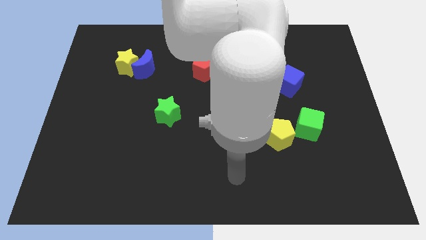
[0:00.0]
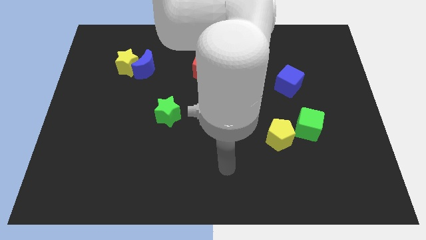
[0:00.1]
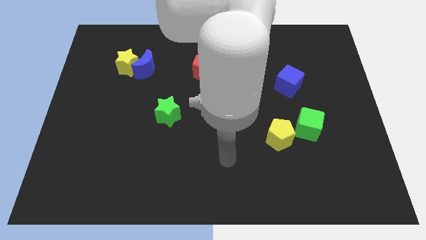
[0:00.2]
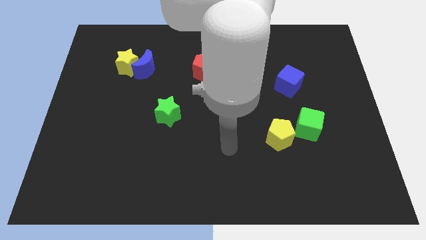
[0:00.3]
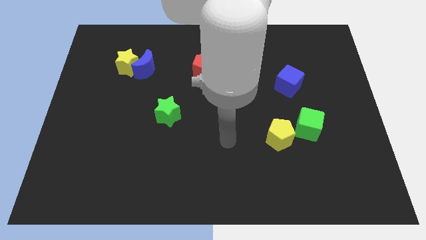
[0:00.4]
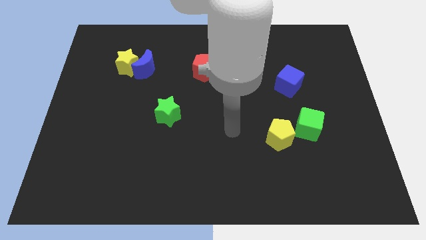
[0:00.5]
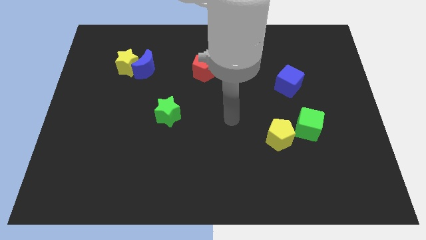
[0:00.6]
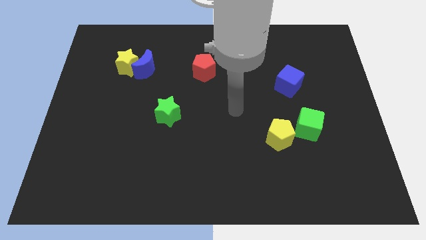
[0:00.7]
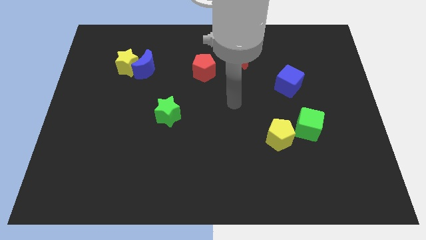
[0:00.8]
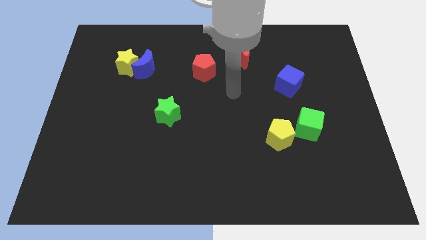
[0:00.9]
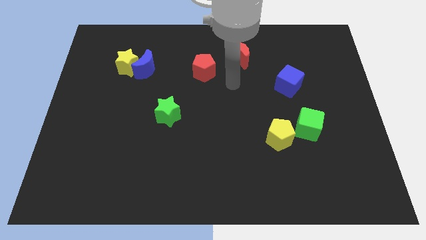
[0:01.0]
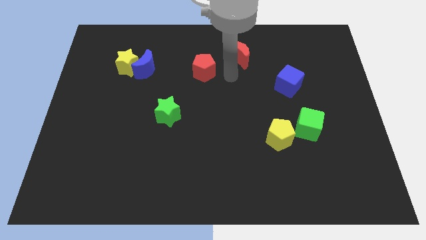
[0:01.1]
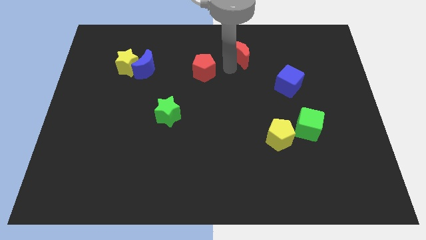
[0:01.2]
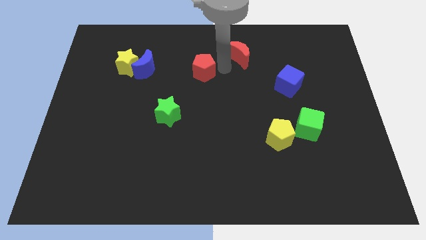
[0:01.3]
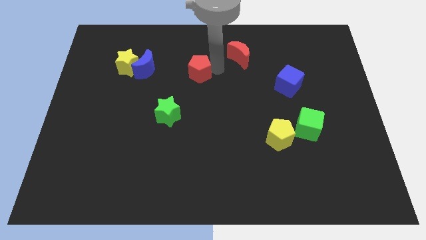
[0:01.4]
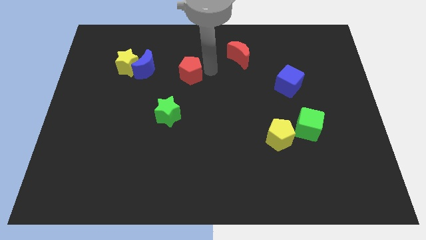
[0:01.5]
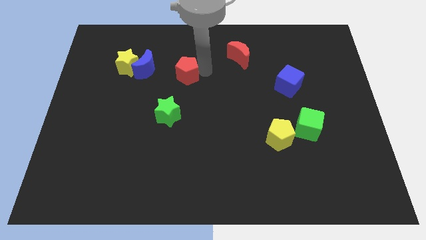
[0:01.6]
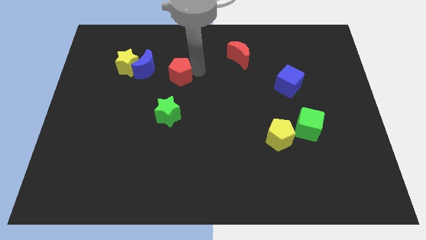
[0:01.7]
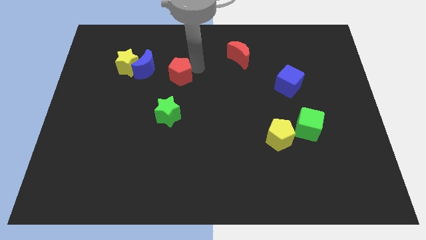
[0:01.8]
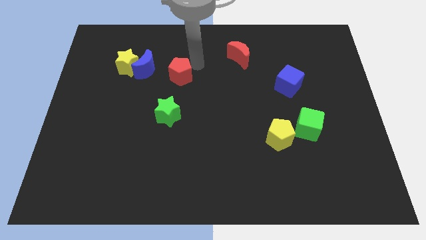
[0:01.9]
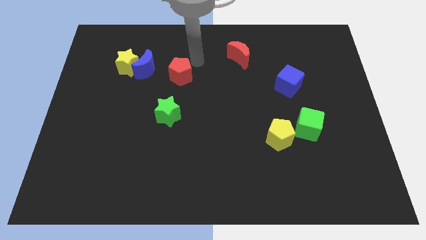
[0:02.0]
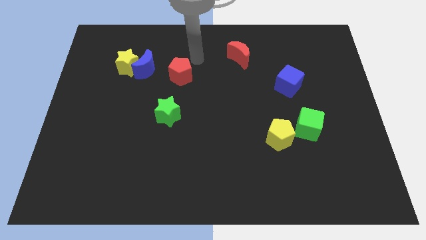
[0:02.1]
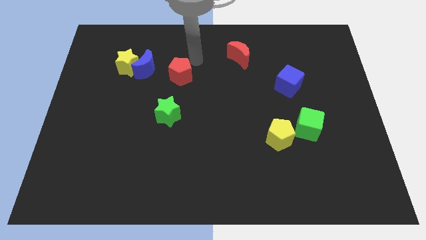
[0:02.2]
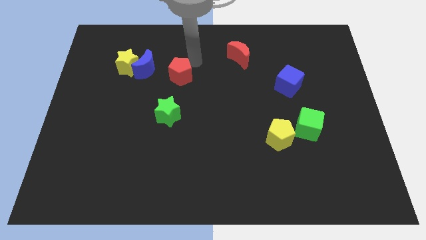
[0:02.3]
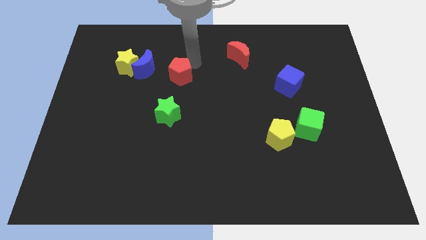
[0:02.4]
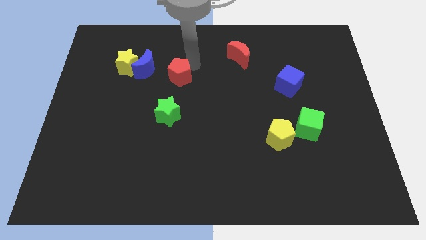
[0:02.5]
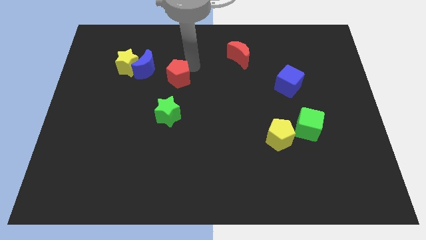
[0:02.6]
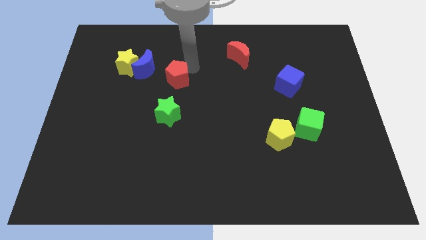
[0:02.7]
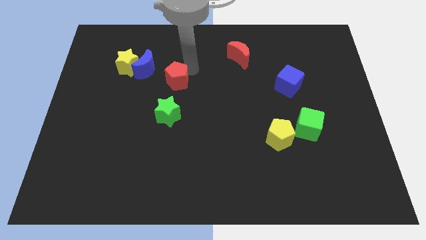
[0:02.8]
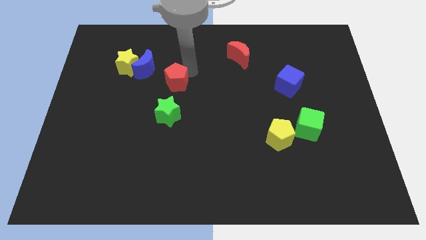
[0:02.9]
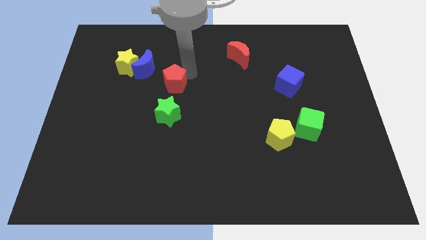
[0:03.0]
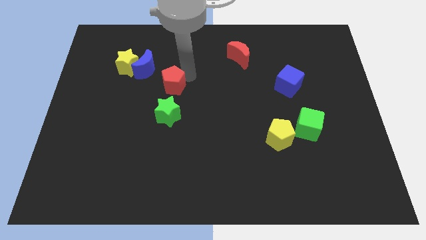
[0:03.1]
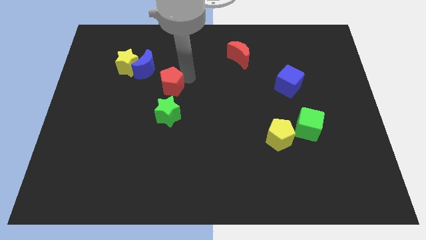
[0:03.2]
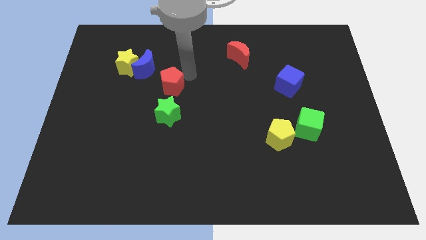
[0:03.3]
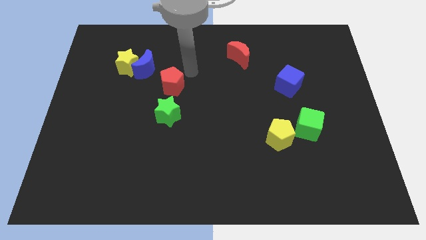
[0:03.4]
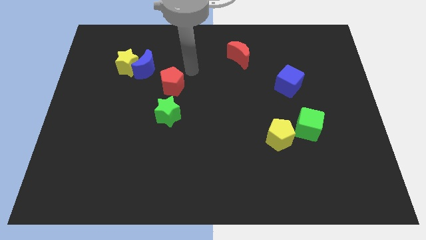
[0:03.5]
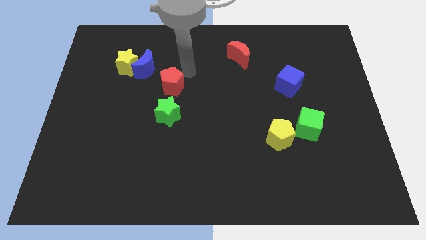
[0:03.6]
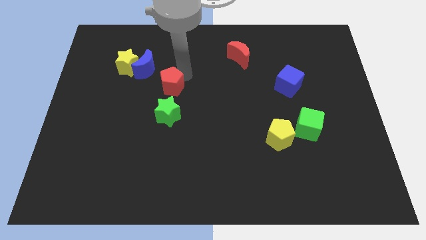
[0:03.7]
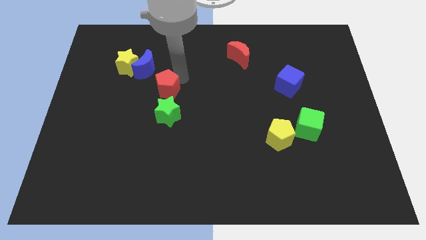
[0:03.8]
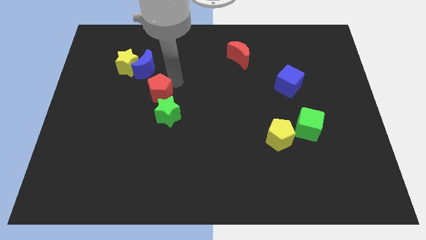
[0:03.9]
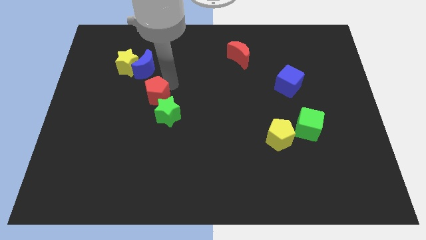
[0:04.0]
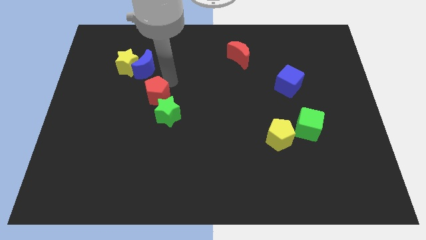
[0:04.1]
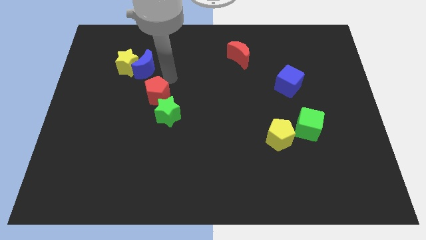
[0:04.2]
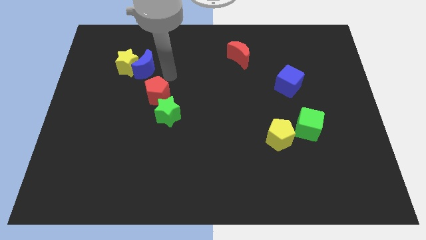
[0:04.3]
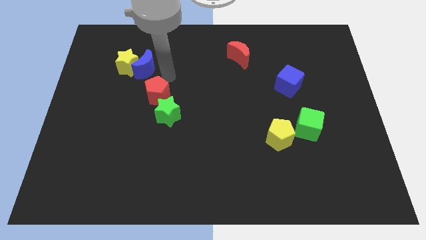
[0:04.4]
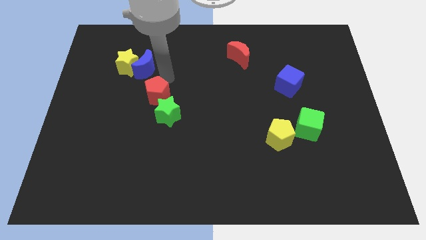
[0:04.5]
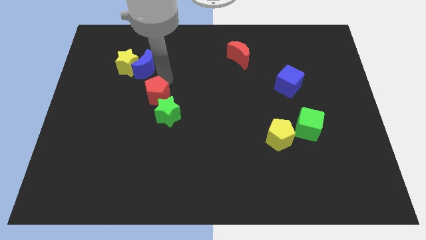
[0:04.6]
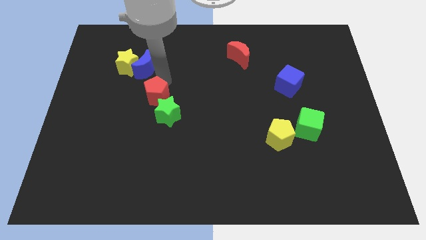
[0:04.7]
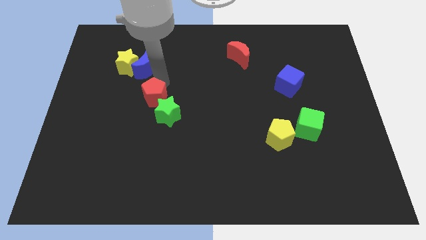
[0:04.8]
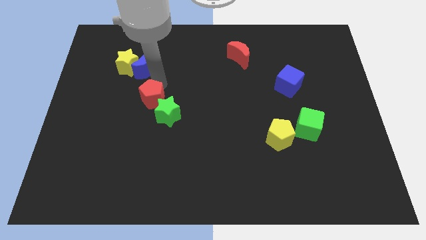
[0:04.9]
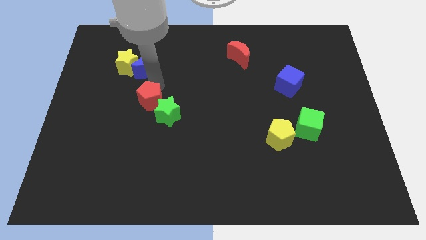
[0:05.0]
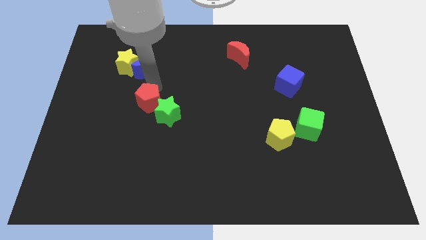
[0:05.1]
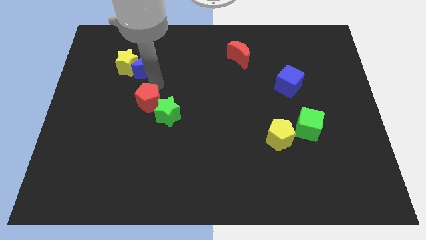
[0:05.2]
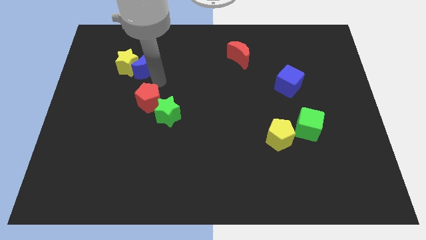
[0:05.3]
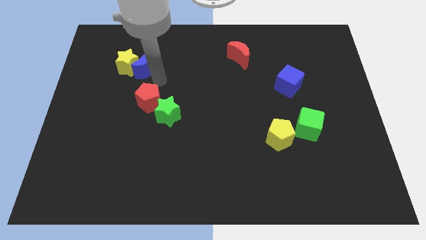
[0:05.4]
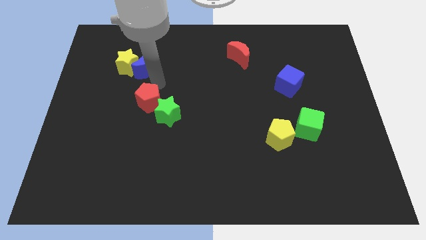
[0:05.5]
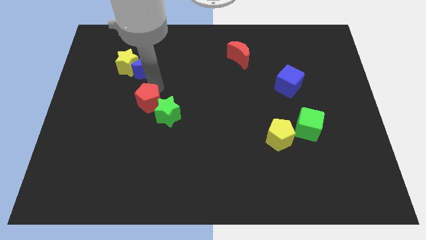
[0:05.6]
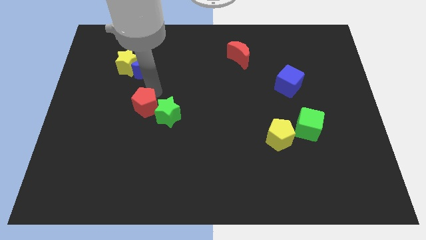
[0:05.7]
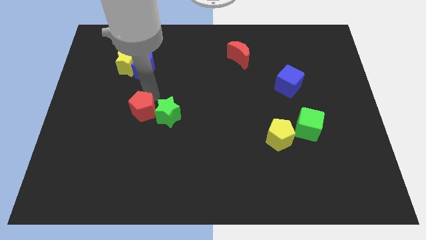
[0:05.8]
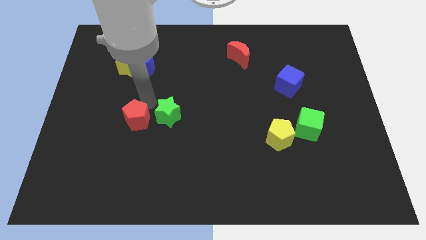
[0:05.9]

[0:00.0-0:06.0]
slide the red pentagon downwards and to the left

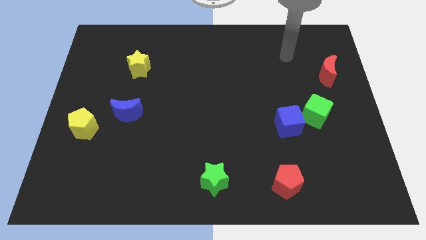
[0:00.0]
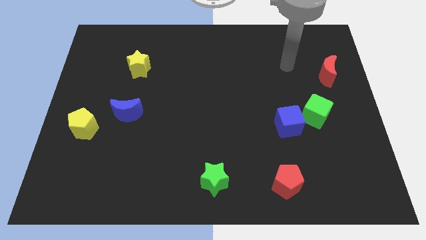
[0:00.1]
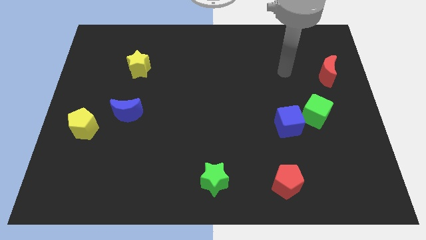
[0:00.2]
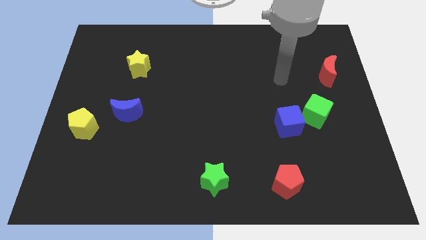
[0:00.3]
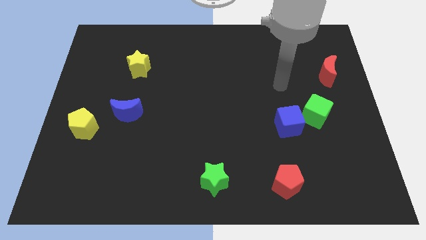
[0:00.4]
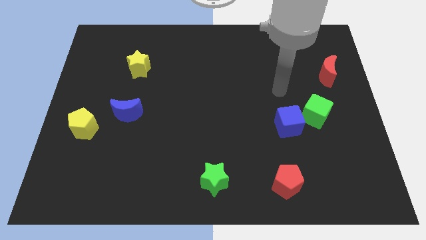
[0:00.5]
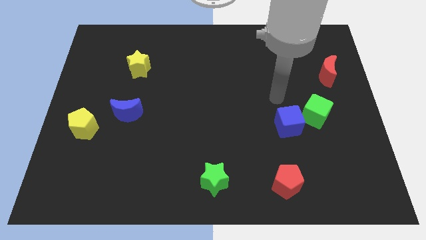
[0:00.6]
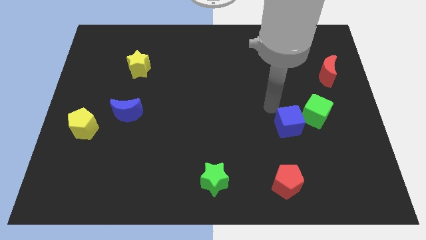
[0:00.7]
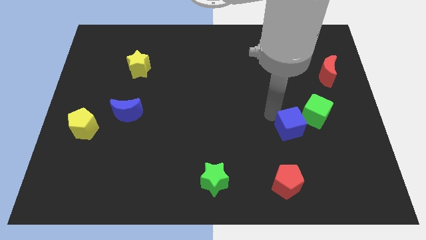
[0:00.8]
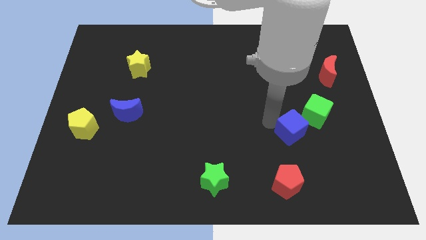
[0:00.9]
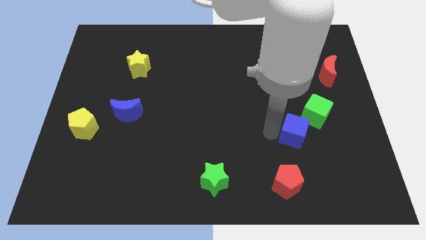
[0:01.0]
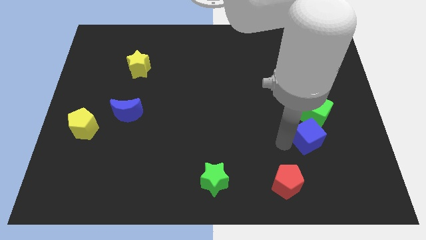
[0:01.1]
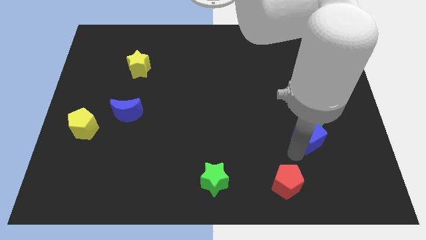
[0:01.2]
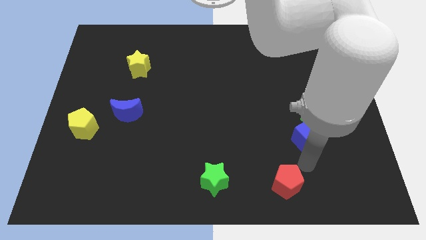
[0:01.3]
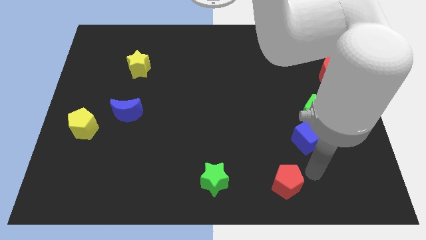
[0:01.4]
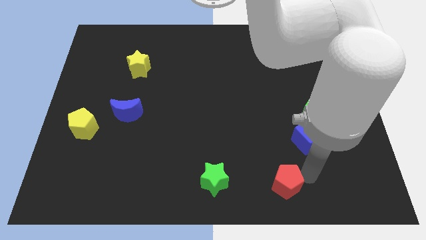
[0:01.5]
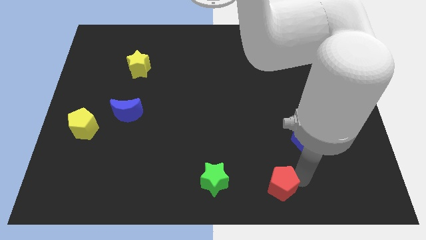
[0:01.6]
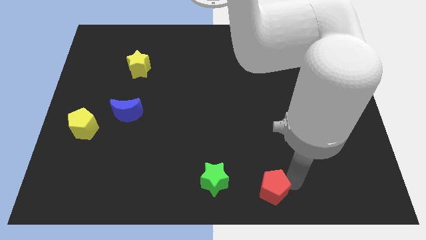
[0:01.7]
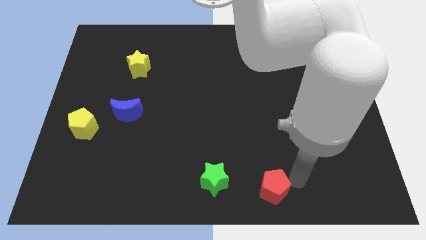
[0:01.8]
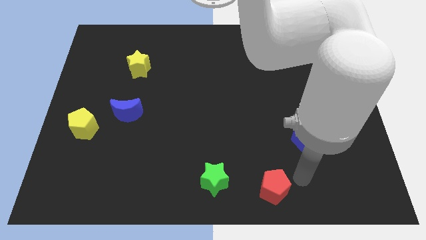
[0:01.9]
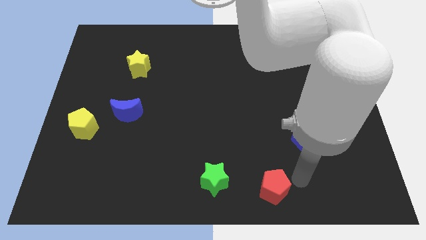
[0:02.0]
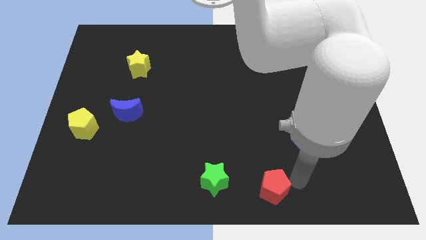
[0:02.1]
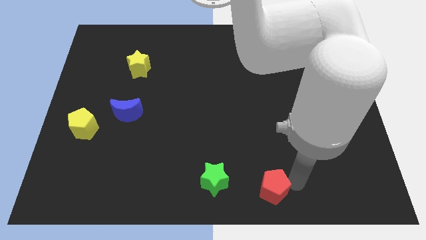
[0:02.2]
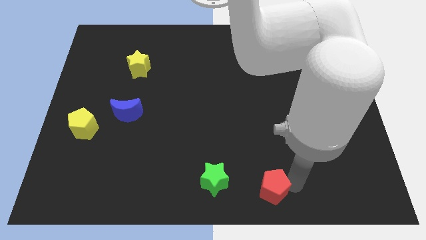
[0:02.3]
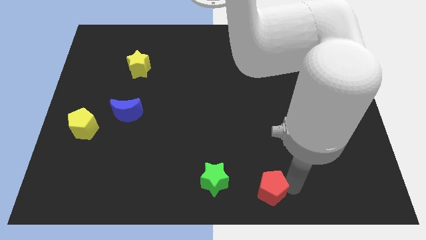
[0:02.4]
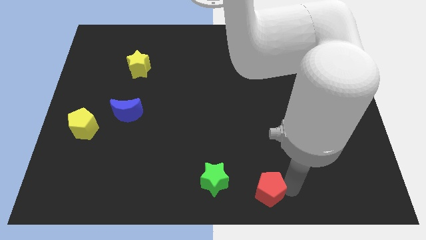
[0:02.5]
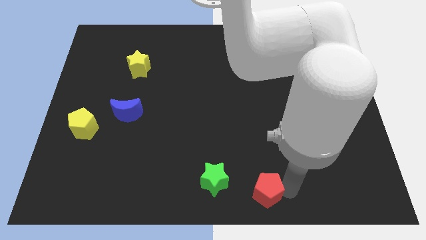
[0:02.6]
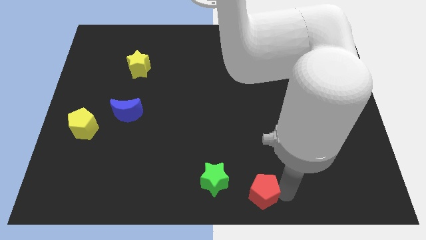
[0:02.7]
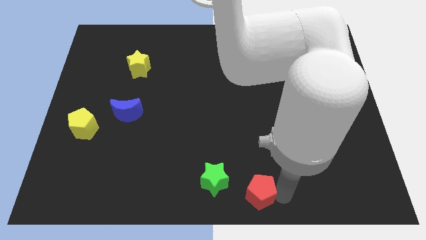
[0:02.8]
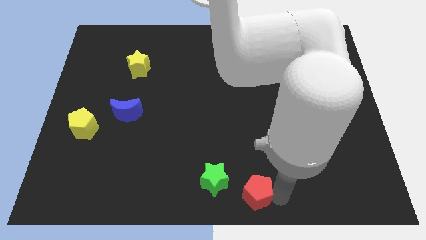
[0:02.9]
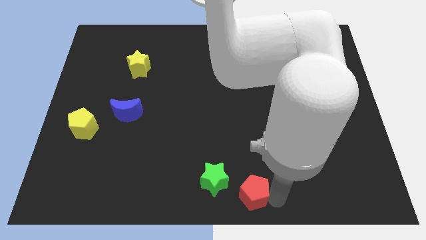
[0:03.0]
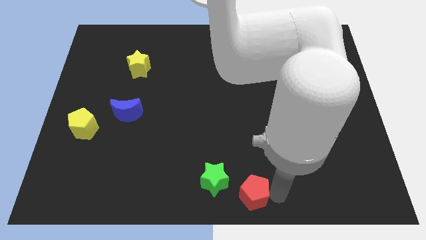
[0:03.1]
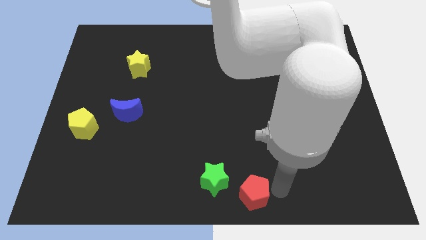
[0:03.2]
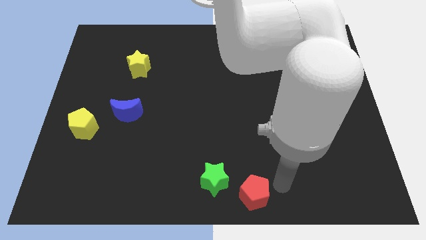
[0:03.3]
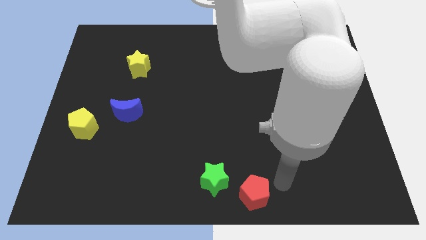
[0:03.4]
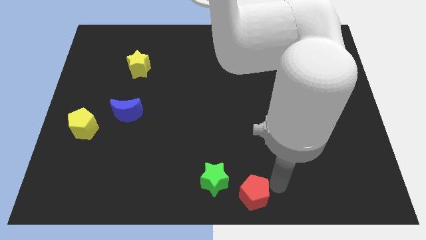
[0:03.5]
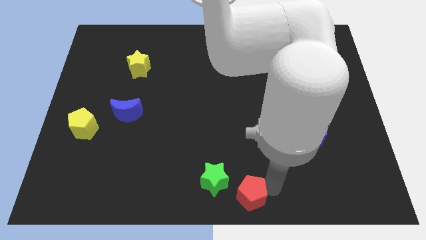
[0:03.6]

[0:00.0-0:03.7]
move the red pentagon a bit left
